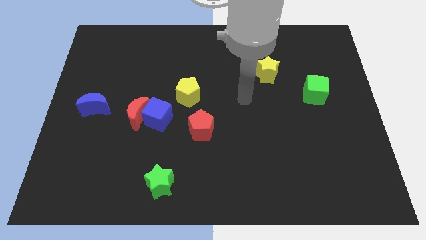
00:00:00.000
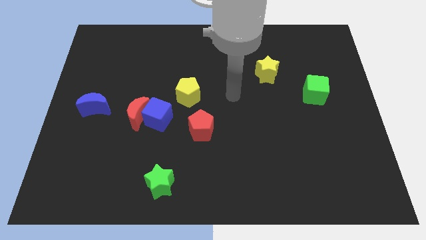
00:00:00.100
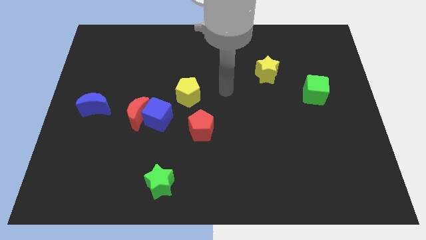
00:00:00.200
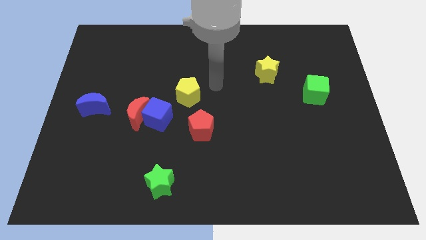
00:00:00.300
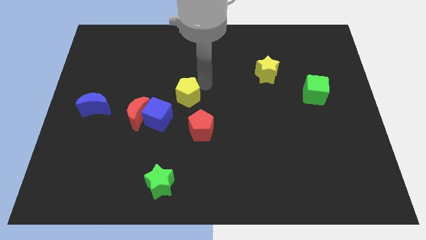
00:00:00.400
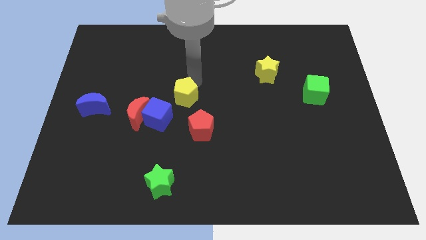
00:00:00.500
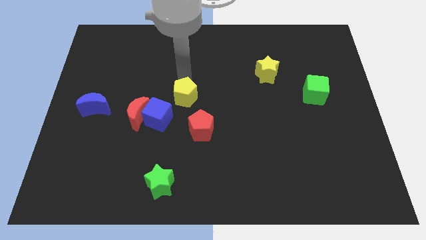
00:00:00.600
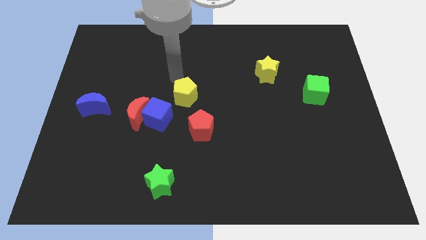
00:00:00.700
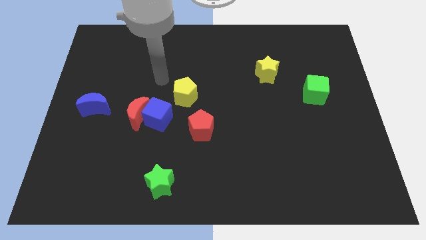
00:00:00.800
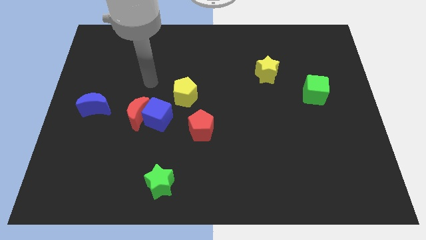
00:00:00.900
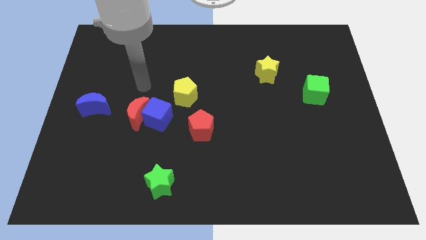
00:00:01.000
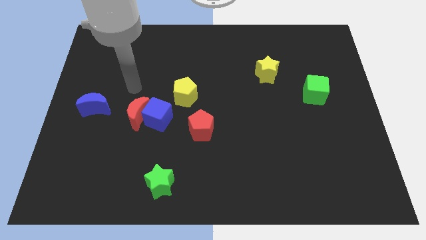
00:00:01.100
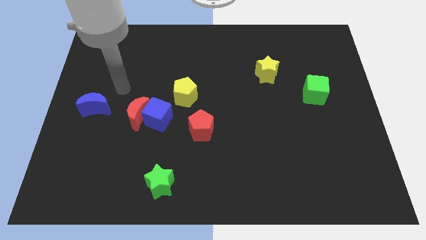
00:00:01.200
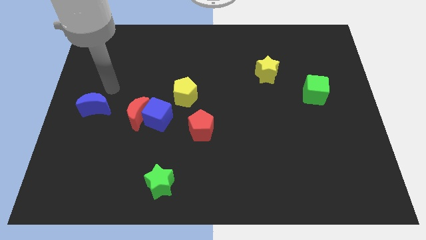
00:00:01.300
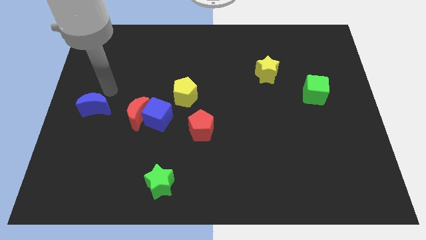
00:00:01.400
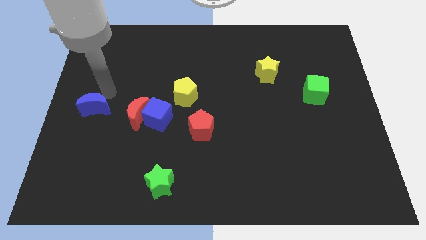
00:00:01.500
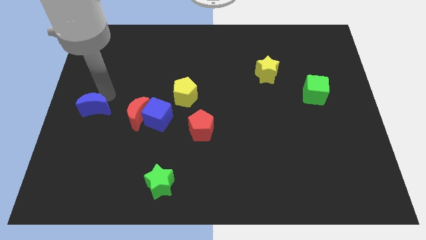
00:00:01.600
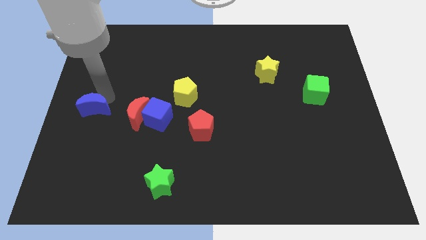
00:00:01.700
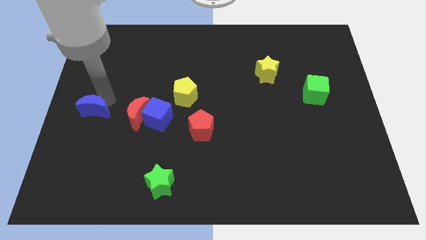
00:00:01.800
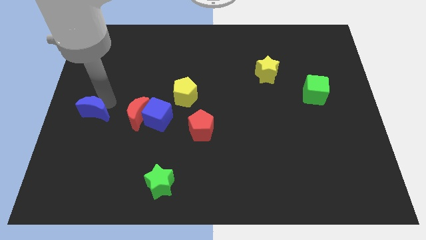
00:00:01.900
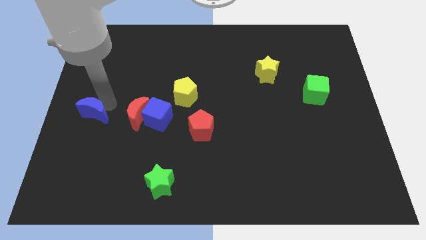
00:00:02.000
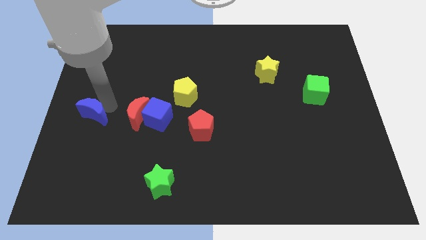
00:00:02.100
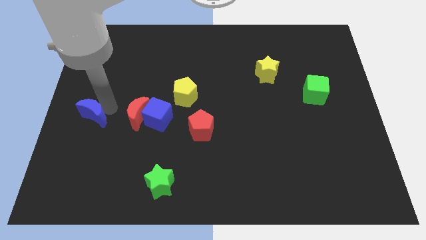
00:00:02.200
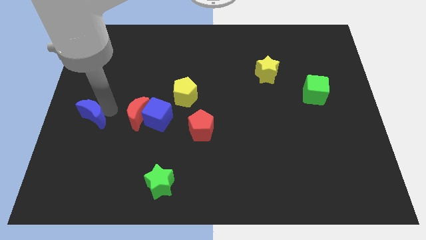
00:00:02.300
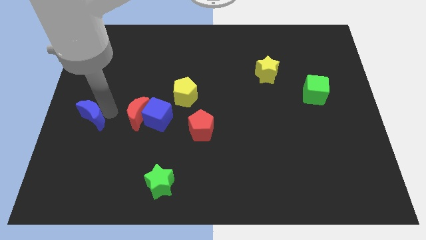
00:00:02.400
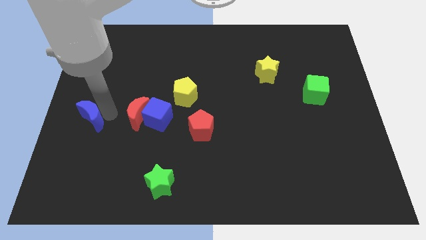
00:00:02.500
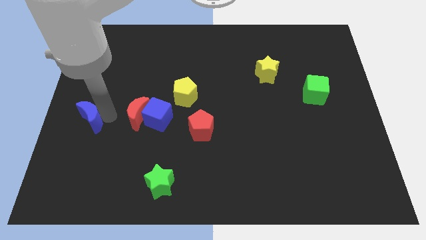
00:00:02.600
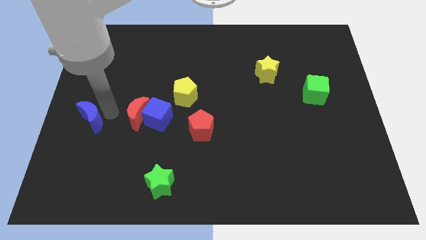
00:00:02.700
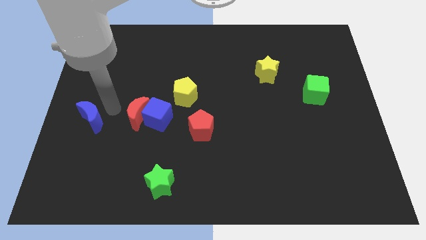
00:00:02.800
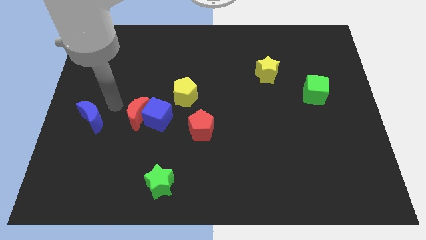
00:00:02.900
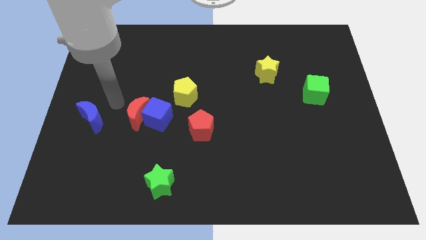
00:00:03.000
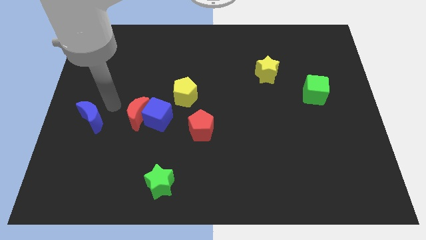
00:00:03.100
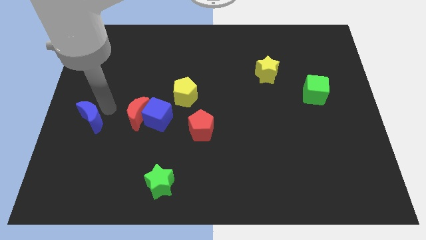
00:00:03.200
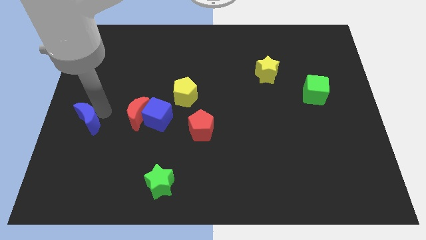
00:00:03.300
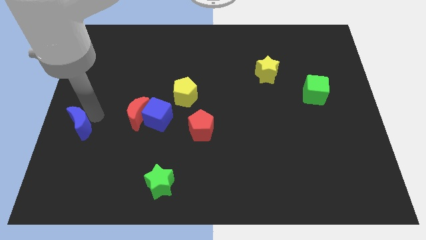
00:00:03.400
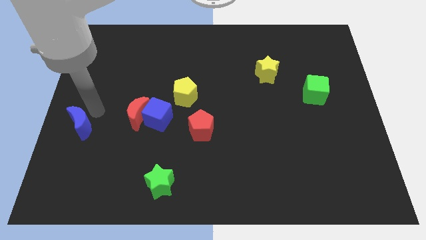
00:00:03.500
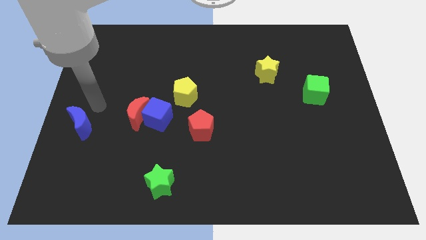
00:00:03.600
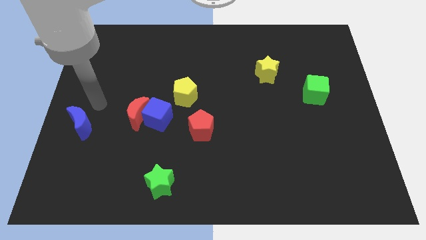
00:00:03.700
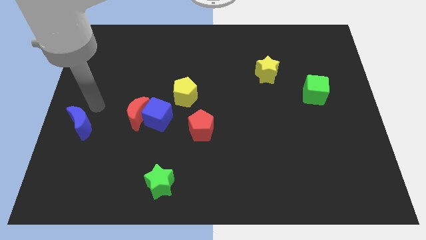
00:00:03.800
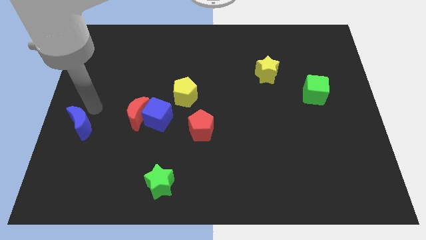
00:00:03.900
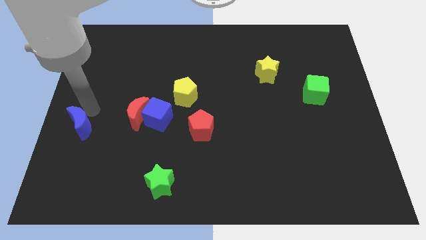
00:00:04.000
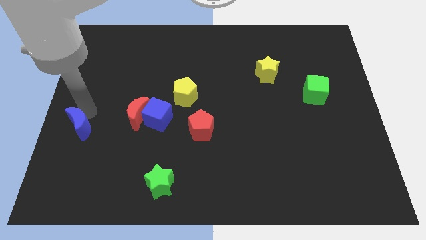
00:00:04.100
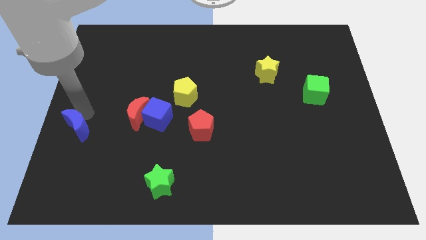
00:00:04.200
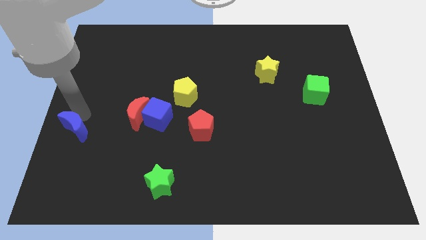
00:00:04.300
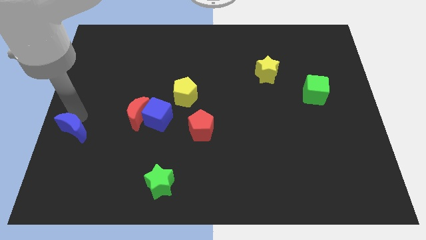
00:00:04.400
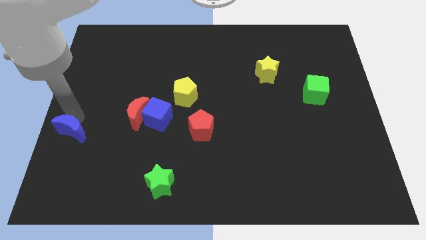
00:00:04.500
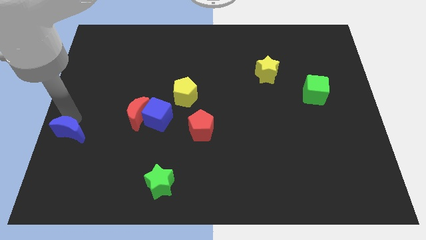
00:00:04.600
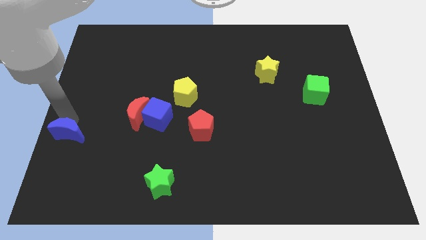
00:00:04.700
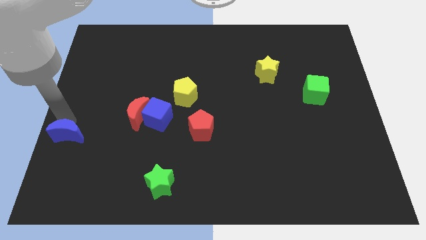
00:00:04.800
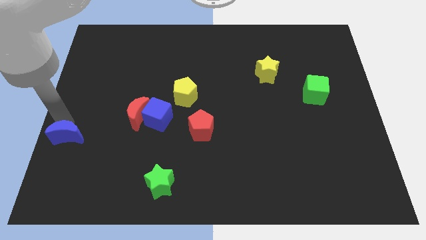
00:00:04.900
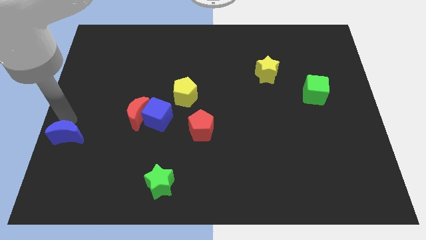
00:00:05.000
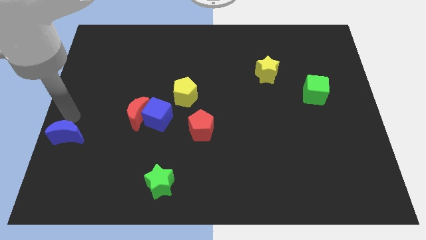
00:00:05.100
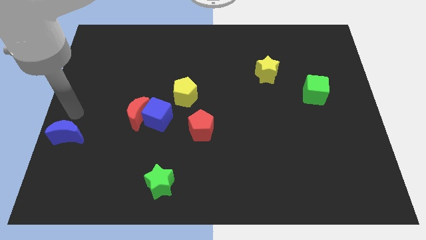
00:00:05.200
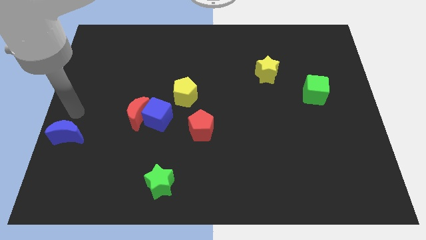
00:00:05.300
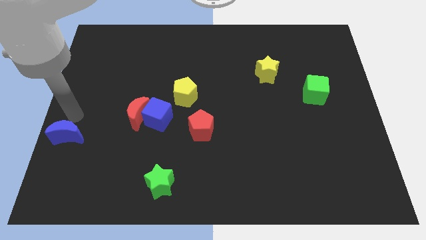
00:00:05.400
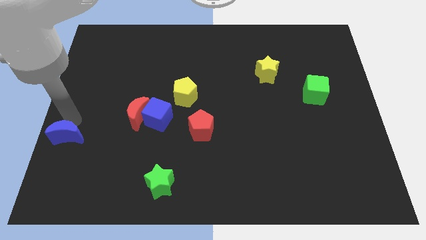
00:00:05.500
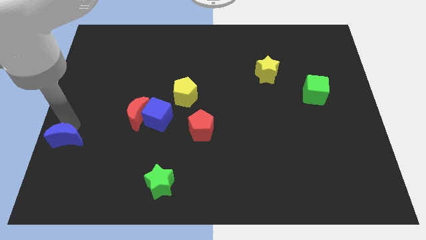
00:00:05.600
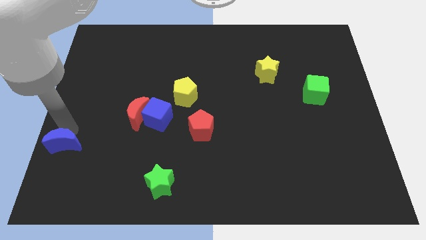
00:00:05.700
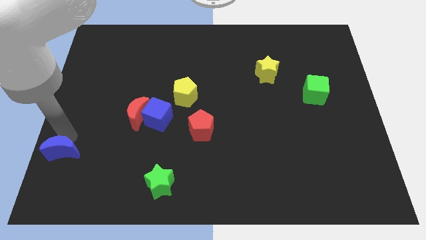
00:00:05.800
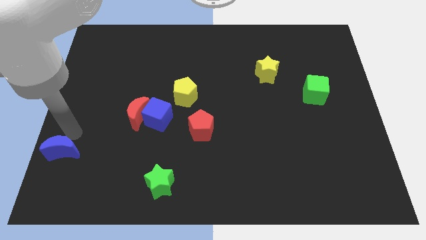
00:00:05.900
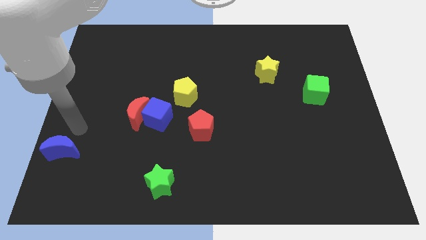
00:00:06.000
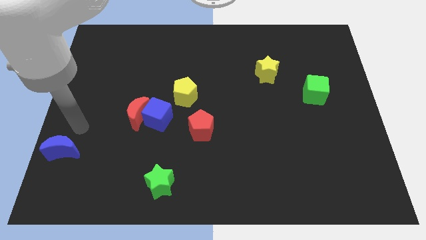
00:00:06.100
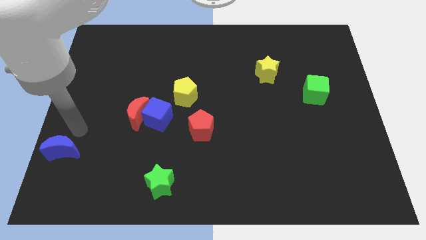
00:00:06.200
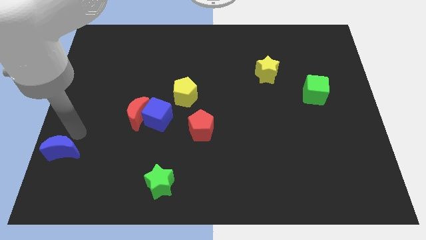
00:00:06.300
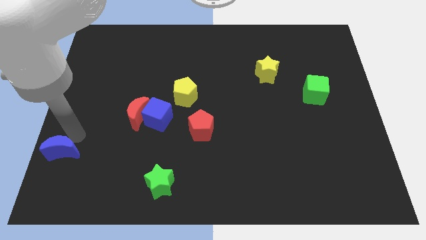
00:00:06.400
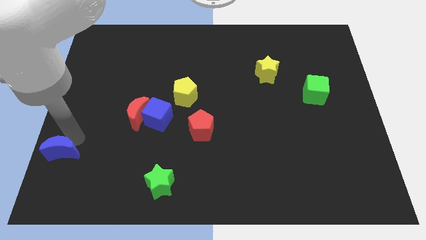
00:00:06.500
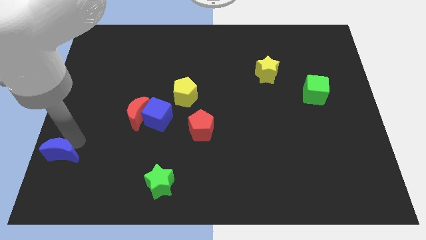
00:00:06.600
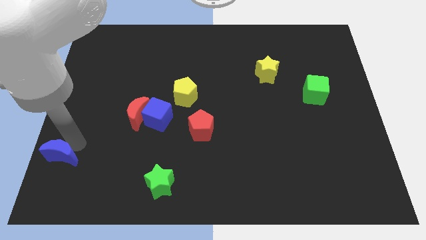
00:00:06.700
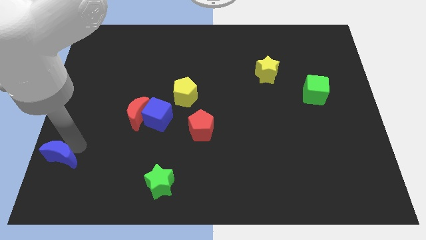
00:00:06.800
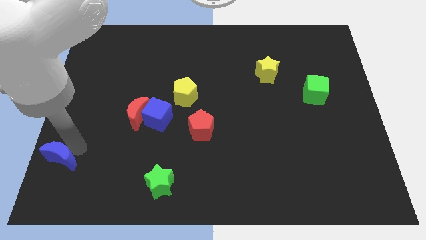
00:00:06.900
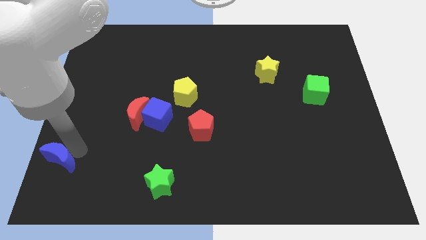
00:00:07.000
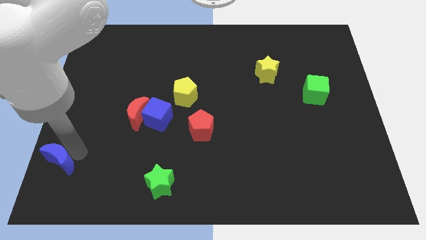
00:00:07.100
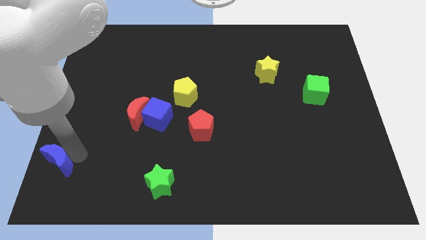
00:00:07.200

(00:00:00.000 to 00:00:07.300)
push the blue moon to the bottom left of the board
